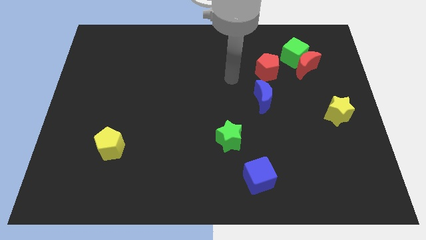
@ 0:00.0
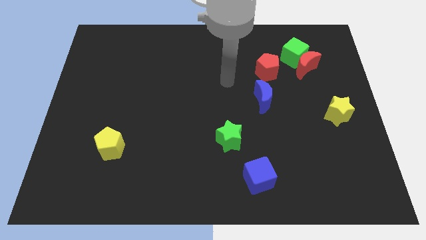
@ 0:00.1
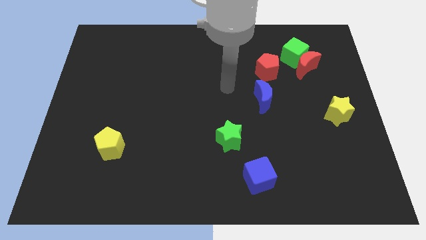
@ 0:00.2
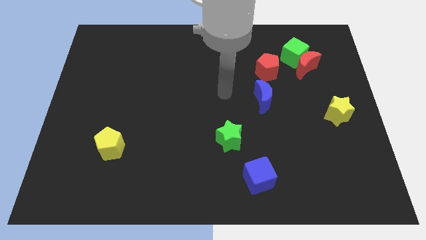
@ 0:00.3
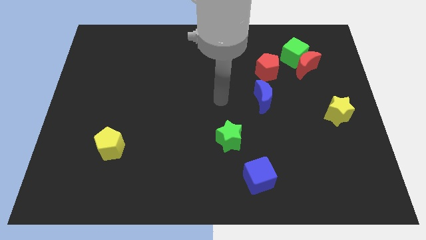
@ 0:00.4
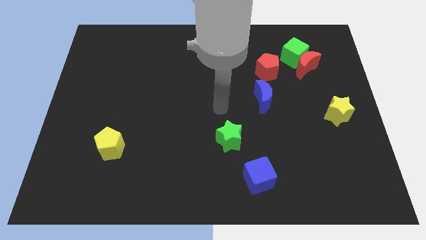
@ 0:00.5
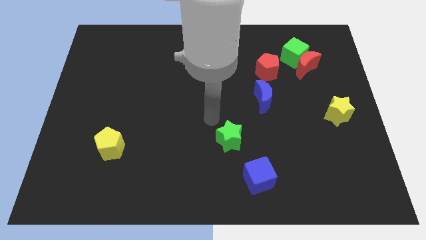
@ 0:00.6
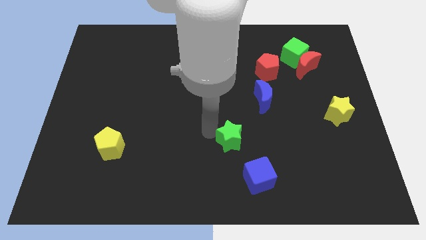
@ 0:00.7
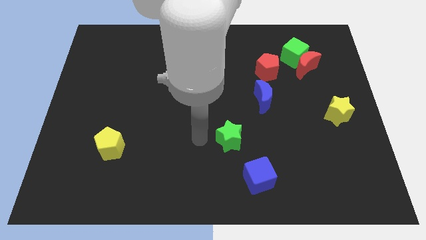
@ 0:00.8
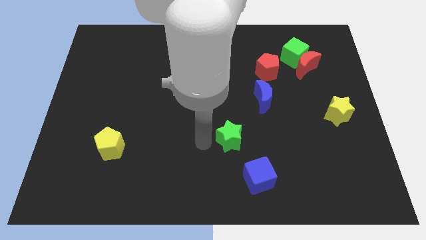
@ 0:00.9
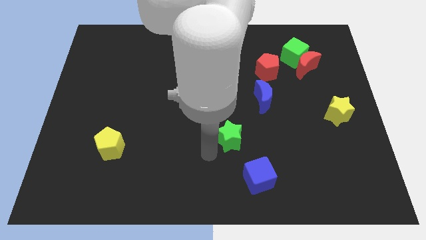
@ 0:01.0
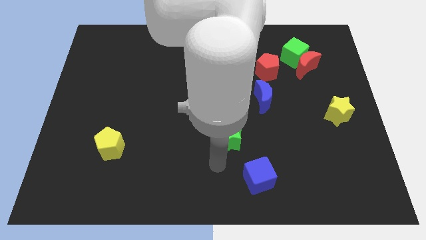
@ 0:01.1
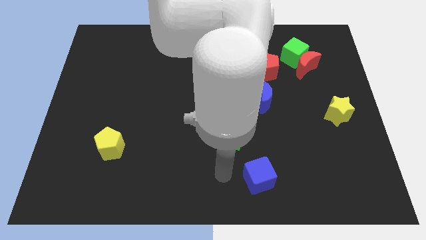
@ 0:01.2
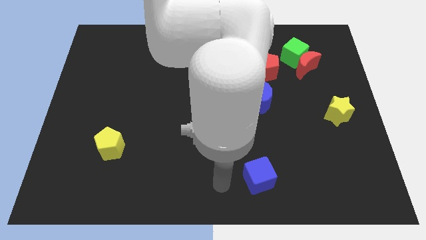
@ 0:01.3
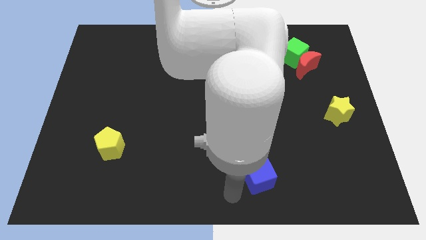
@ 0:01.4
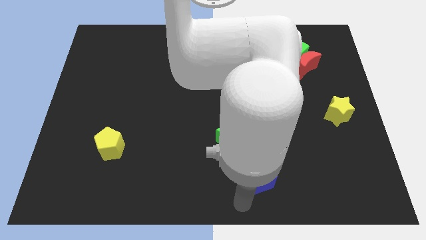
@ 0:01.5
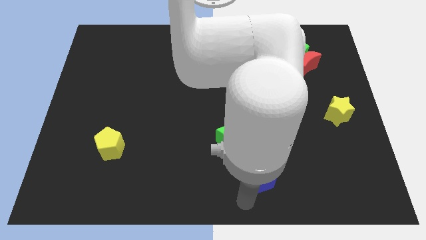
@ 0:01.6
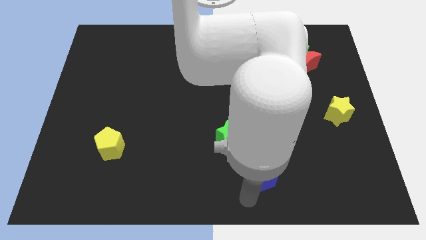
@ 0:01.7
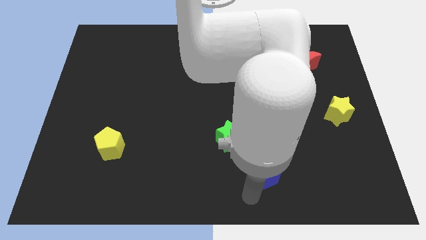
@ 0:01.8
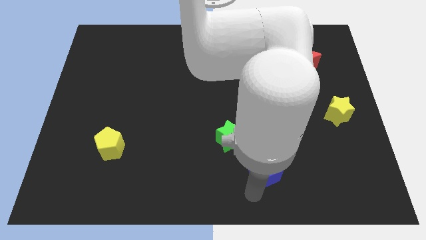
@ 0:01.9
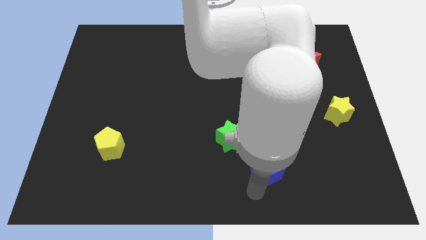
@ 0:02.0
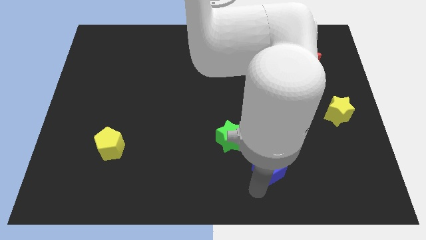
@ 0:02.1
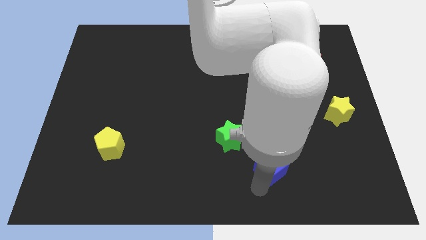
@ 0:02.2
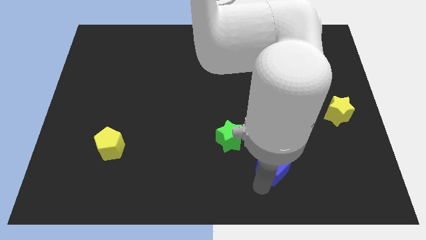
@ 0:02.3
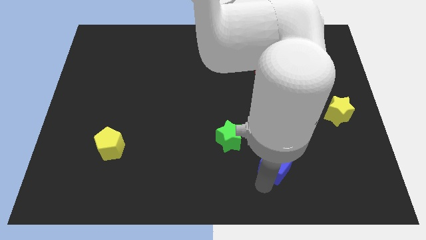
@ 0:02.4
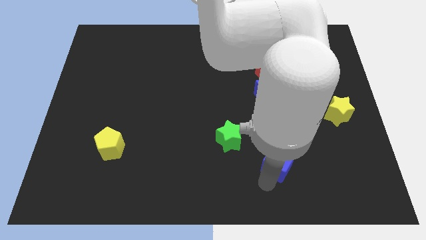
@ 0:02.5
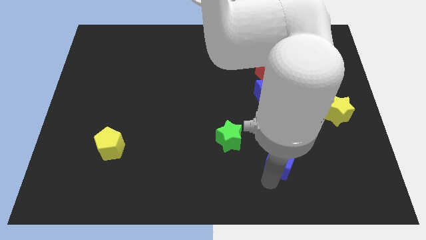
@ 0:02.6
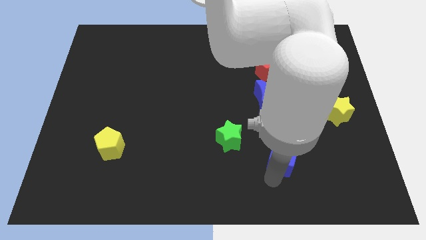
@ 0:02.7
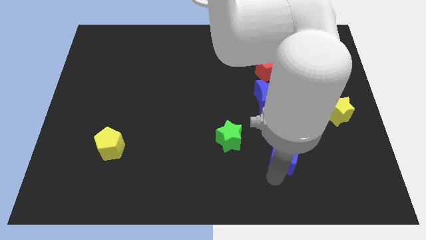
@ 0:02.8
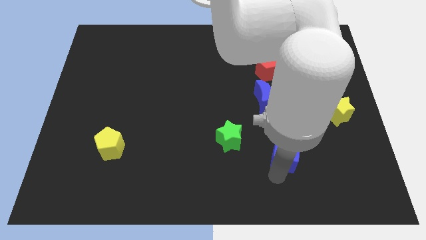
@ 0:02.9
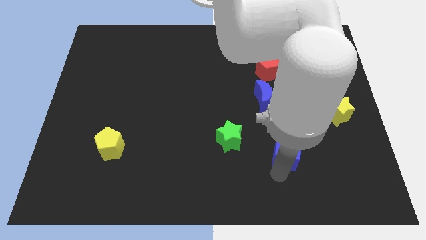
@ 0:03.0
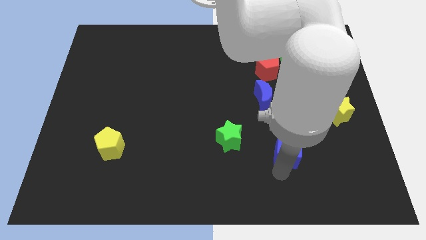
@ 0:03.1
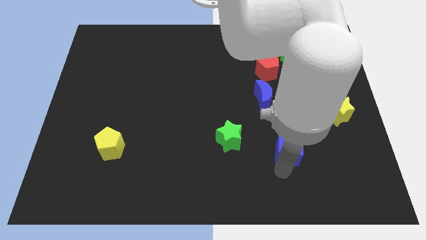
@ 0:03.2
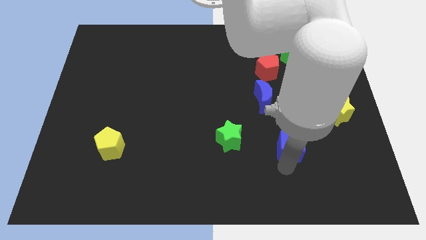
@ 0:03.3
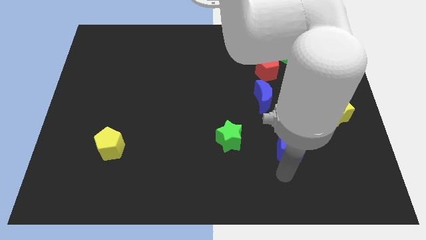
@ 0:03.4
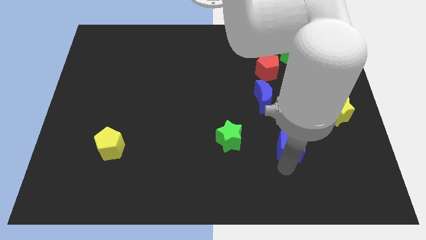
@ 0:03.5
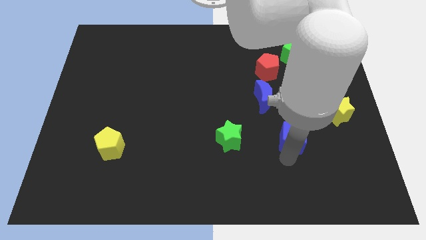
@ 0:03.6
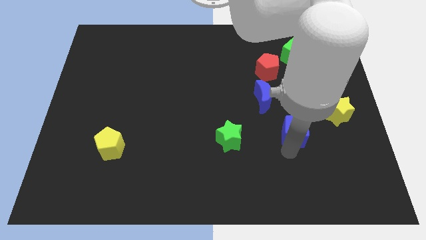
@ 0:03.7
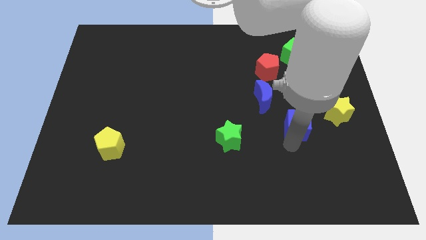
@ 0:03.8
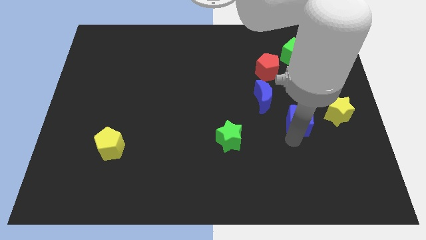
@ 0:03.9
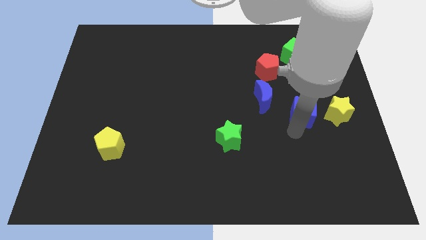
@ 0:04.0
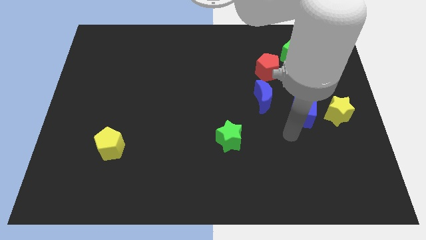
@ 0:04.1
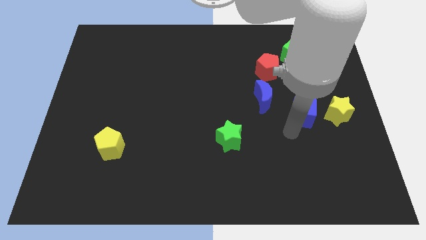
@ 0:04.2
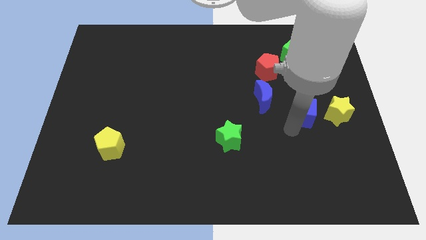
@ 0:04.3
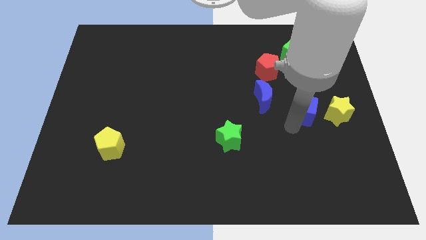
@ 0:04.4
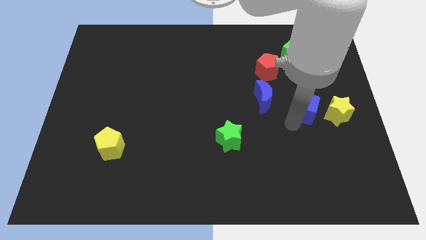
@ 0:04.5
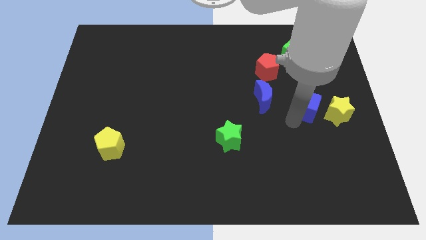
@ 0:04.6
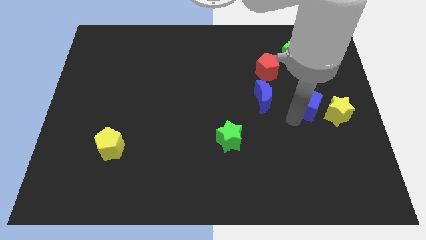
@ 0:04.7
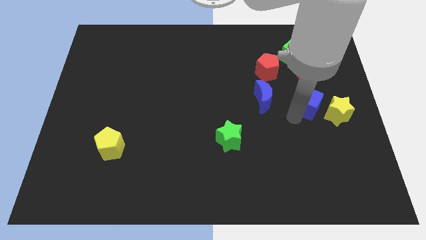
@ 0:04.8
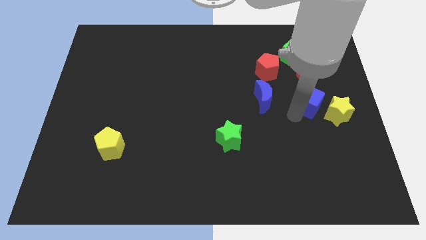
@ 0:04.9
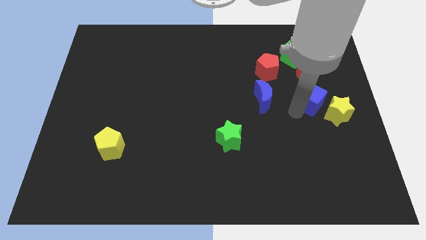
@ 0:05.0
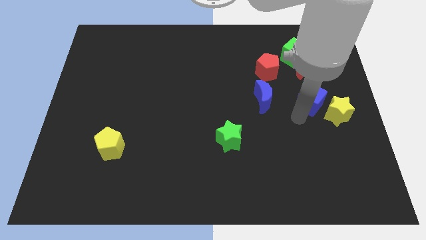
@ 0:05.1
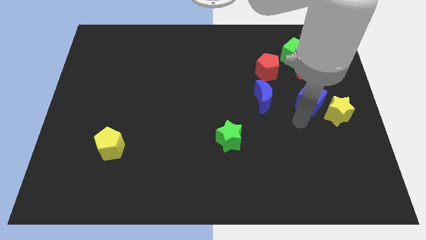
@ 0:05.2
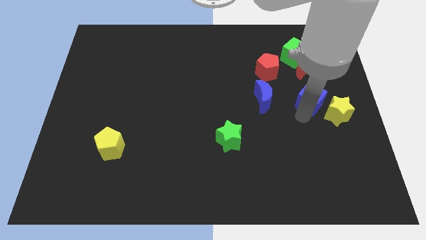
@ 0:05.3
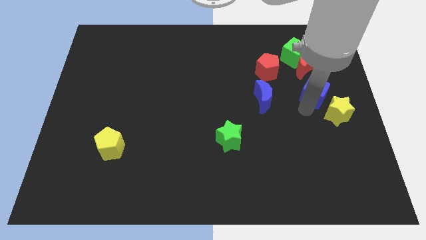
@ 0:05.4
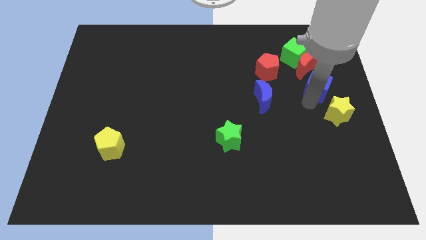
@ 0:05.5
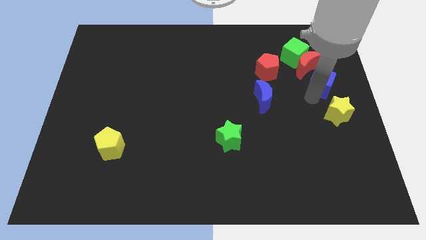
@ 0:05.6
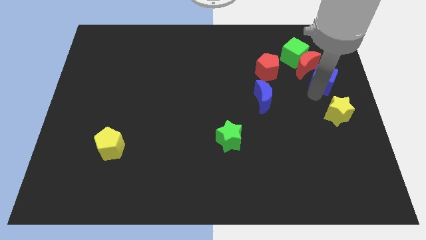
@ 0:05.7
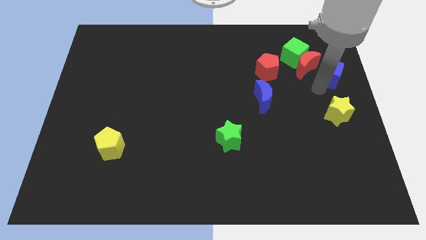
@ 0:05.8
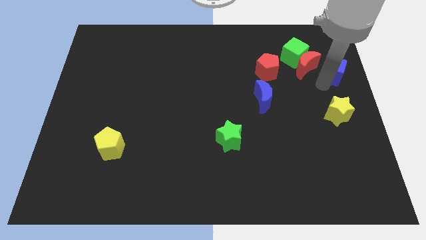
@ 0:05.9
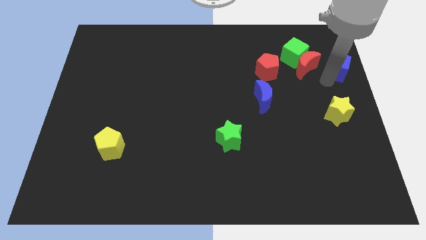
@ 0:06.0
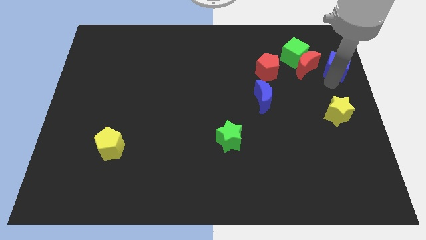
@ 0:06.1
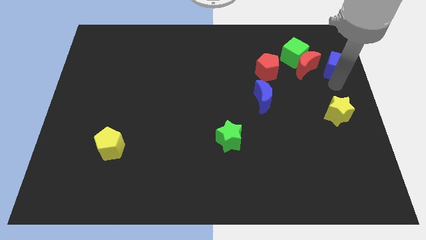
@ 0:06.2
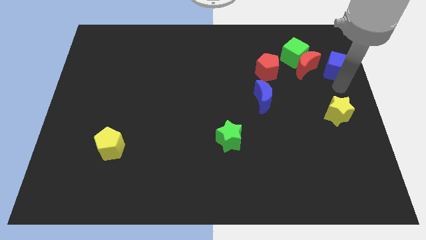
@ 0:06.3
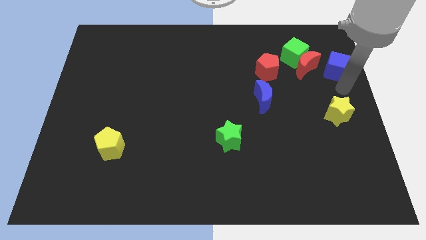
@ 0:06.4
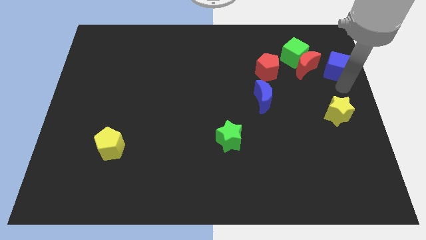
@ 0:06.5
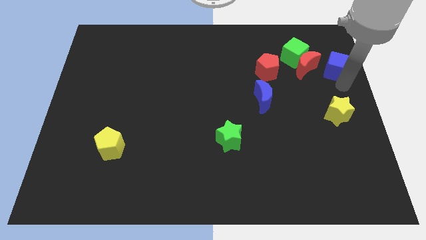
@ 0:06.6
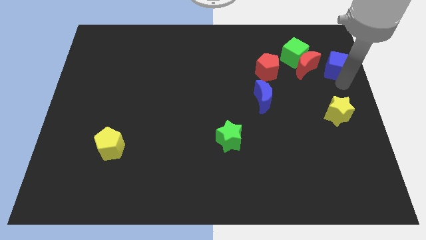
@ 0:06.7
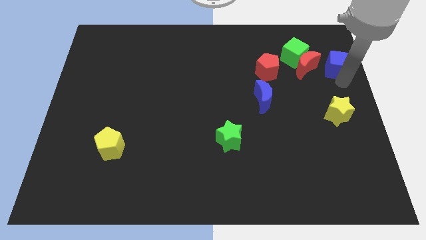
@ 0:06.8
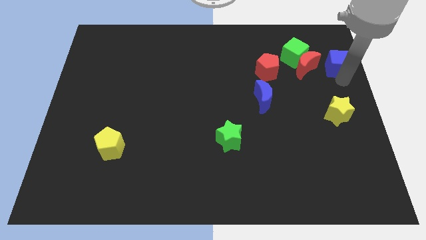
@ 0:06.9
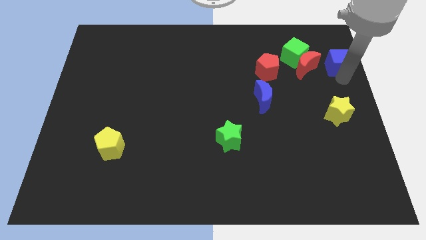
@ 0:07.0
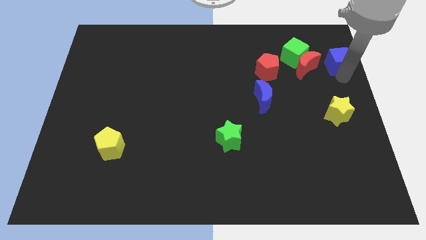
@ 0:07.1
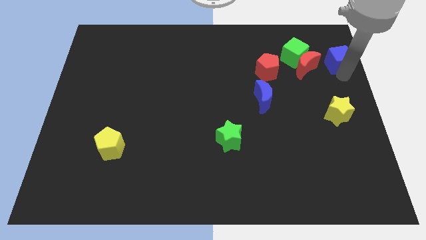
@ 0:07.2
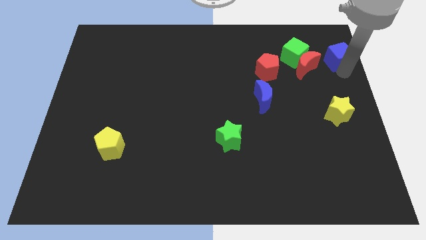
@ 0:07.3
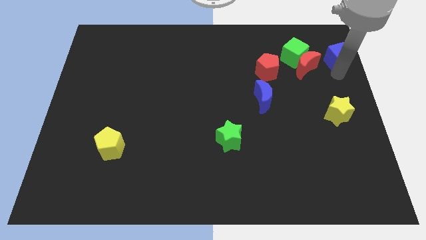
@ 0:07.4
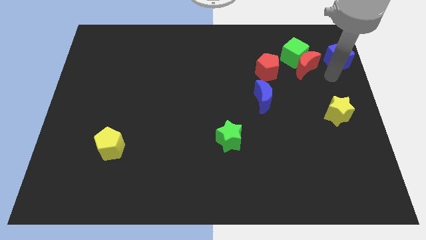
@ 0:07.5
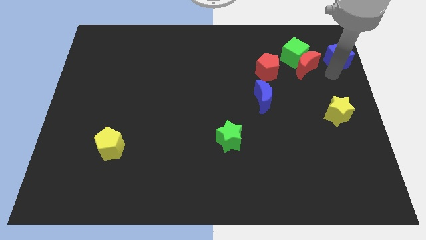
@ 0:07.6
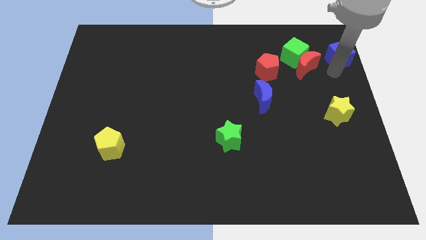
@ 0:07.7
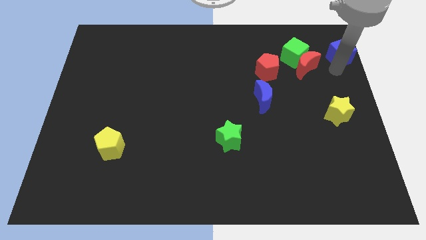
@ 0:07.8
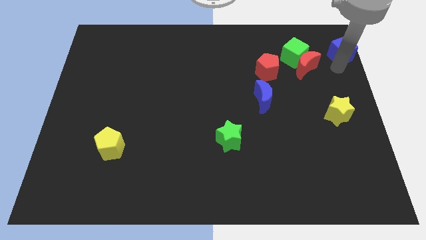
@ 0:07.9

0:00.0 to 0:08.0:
put the blue cube to the top right of the board
